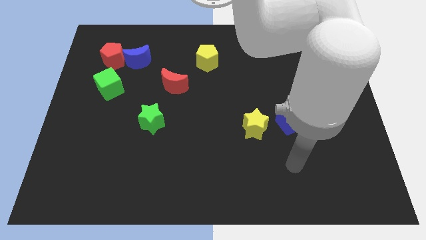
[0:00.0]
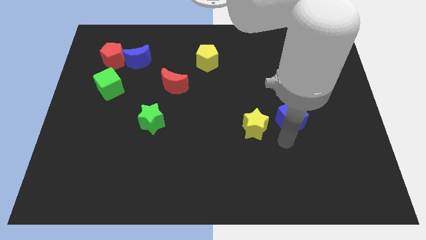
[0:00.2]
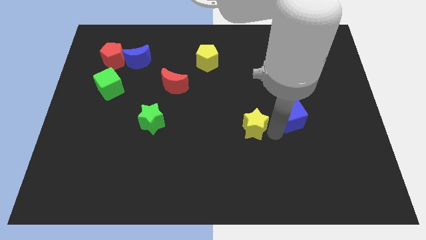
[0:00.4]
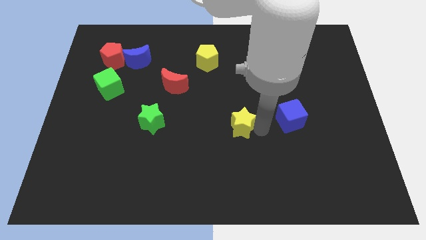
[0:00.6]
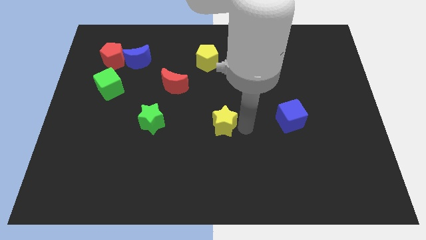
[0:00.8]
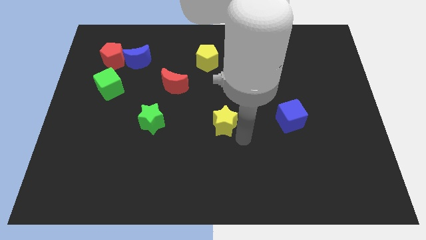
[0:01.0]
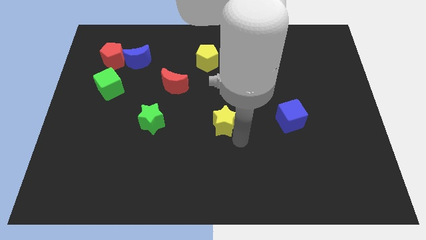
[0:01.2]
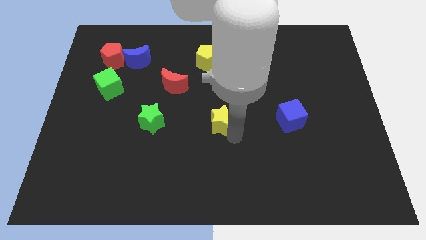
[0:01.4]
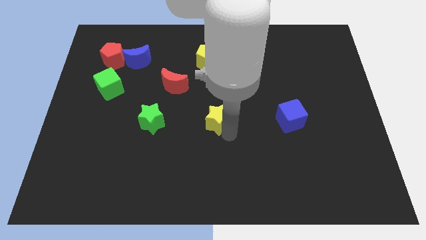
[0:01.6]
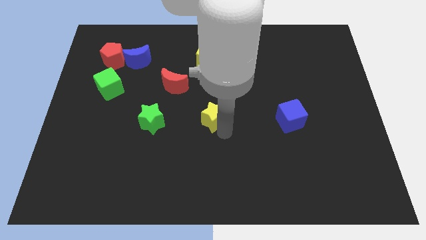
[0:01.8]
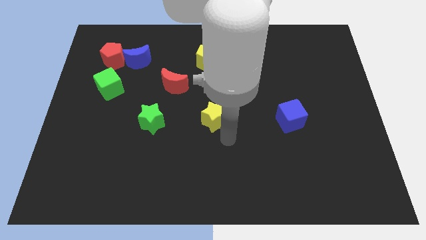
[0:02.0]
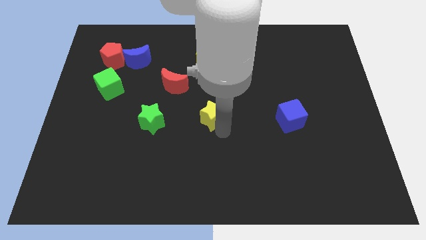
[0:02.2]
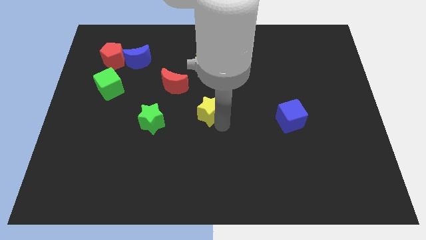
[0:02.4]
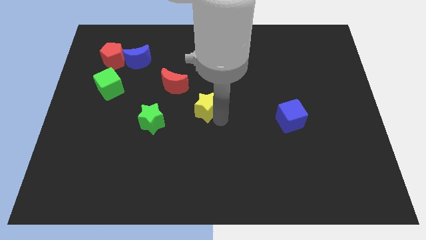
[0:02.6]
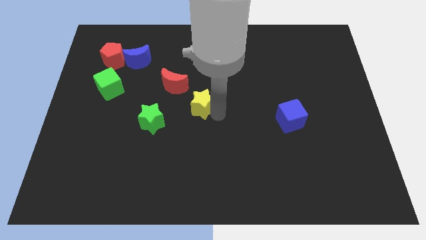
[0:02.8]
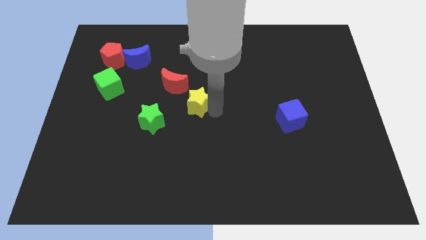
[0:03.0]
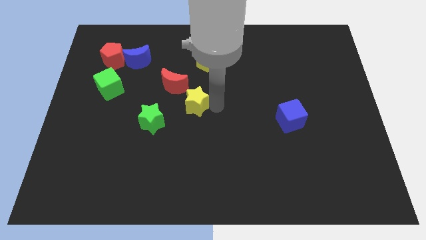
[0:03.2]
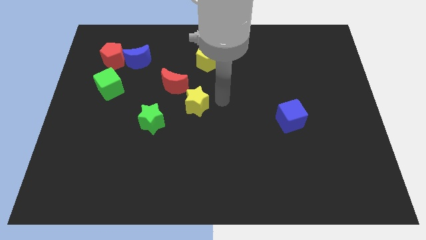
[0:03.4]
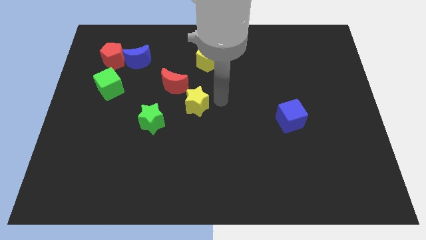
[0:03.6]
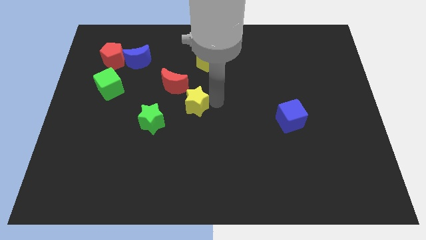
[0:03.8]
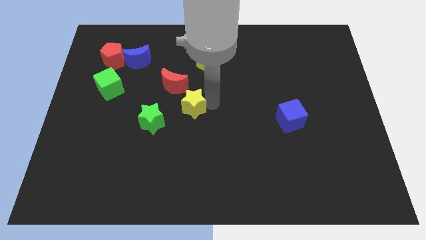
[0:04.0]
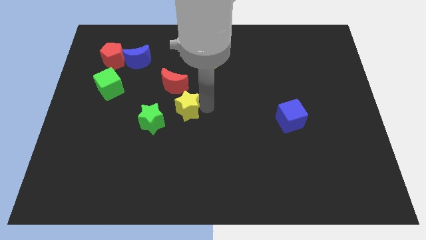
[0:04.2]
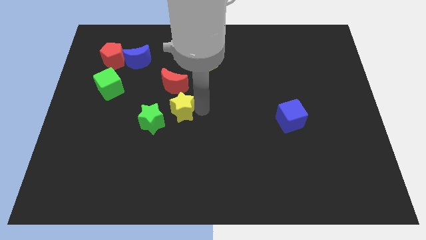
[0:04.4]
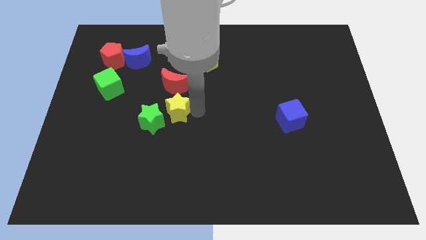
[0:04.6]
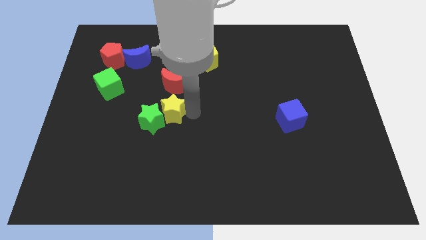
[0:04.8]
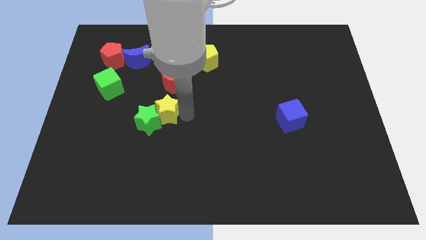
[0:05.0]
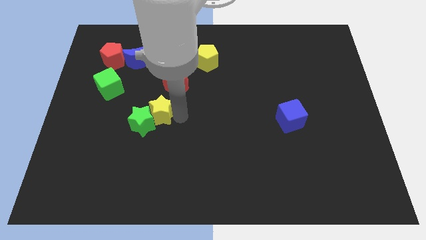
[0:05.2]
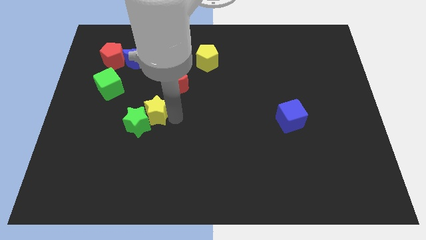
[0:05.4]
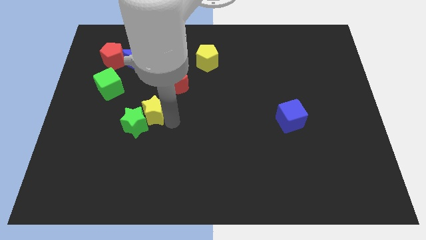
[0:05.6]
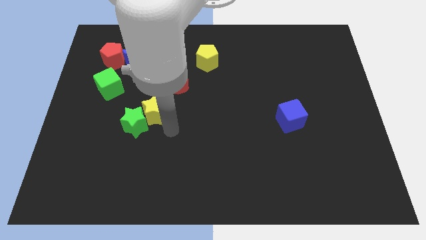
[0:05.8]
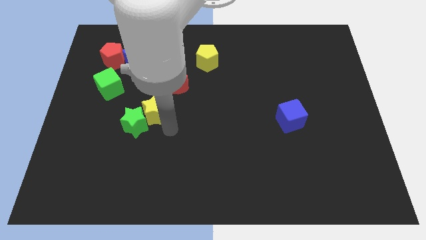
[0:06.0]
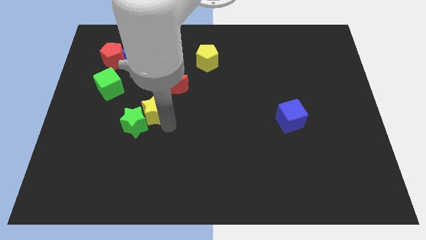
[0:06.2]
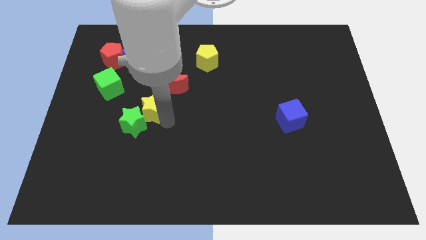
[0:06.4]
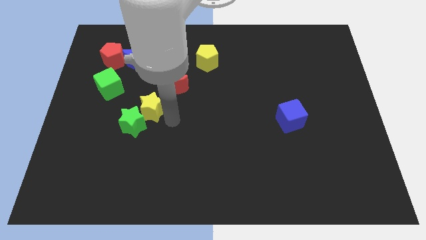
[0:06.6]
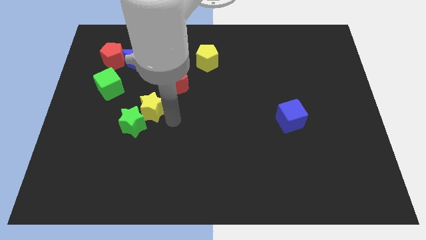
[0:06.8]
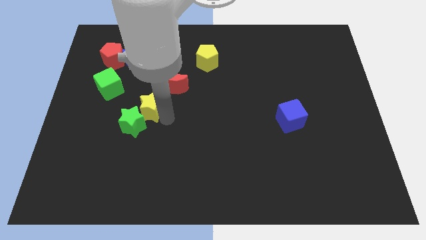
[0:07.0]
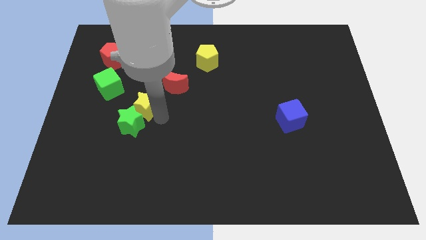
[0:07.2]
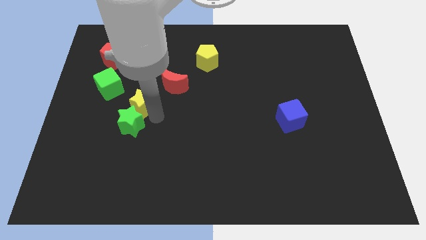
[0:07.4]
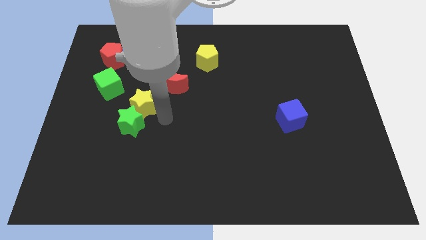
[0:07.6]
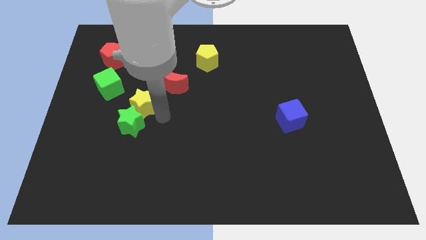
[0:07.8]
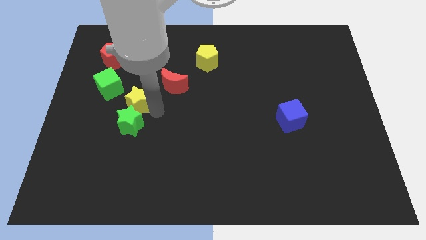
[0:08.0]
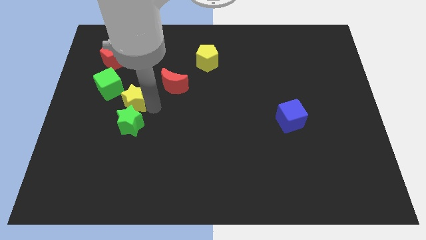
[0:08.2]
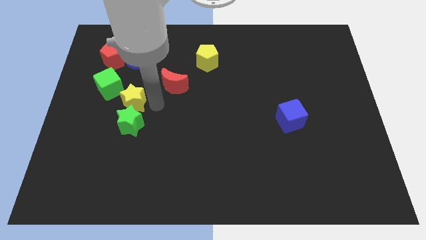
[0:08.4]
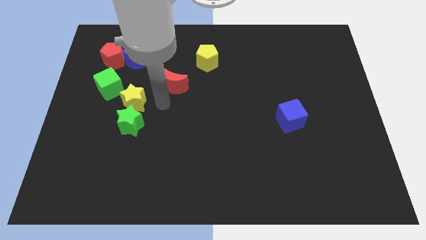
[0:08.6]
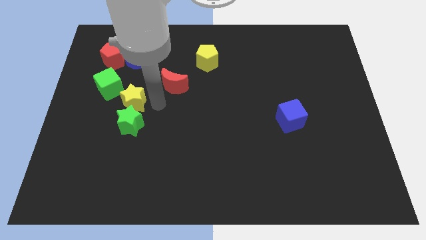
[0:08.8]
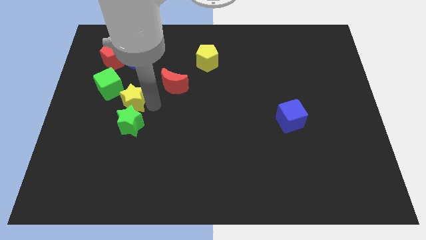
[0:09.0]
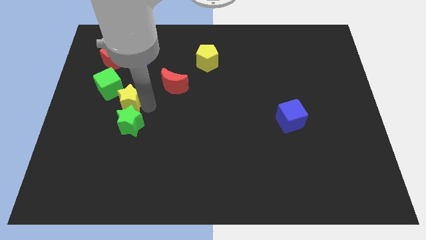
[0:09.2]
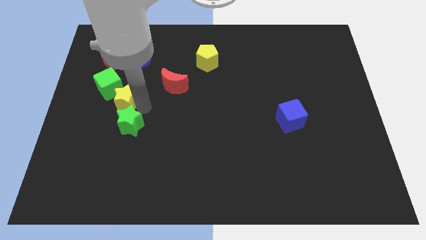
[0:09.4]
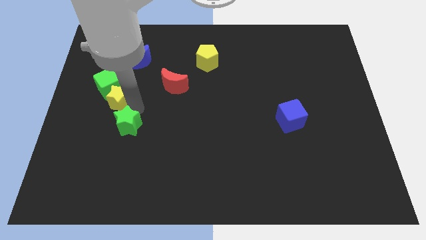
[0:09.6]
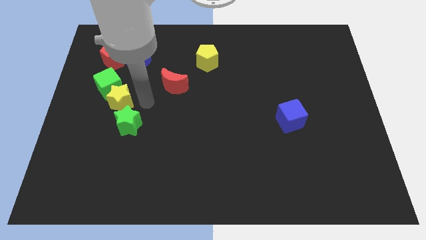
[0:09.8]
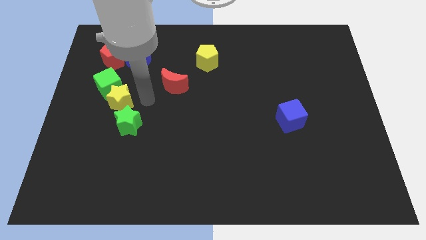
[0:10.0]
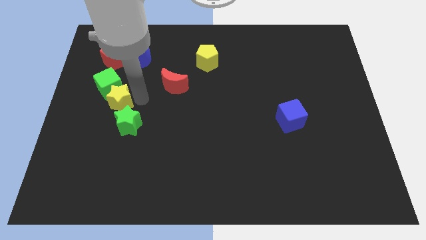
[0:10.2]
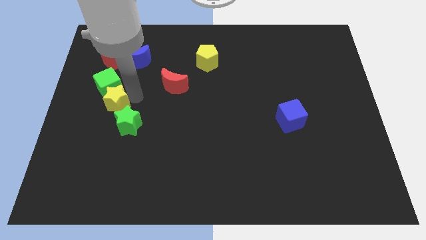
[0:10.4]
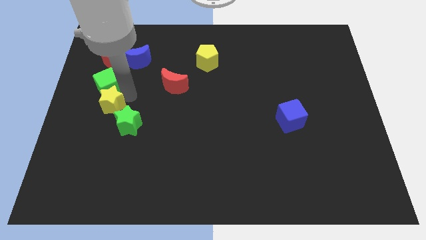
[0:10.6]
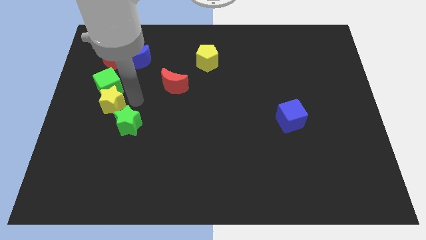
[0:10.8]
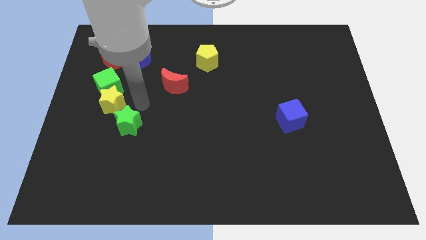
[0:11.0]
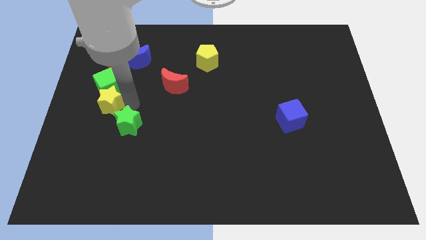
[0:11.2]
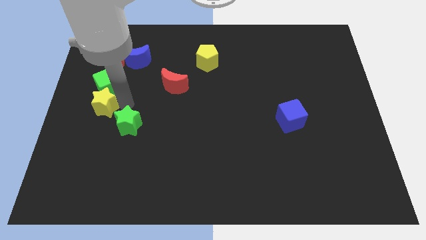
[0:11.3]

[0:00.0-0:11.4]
push the yellow star to the center left

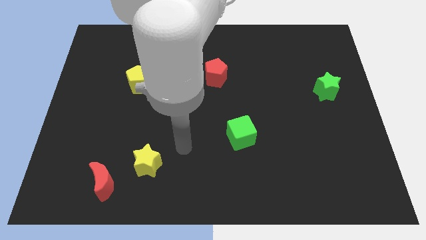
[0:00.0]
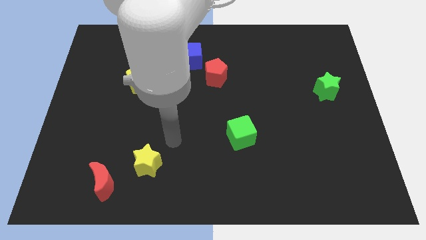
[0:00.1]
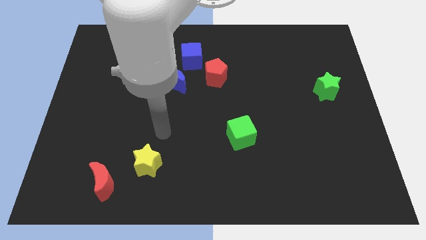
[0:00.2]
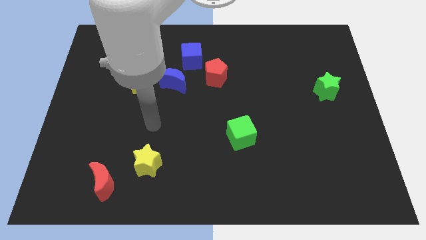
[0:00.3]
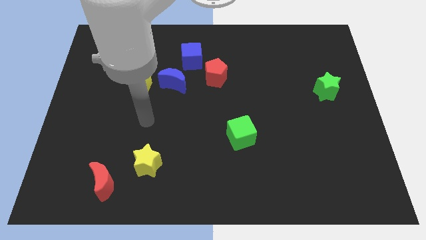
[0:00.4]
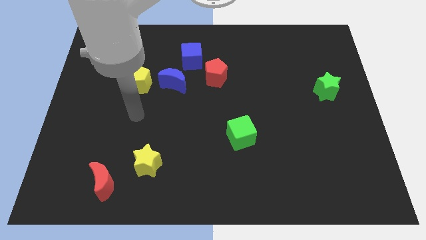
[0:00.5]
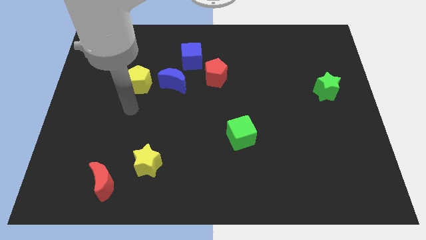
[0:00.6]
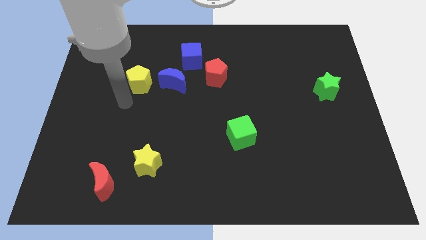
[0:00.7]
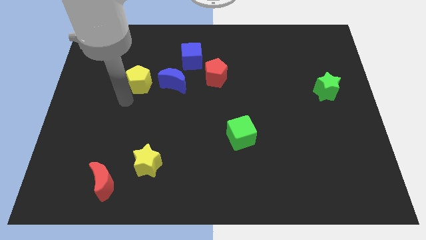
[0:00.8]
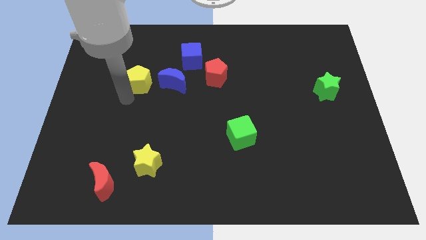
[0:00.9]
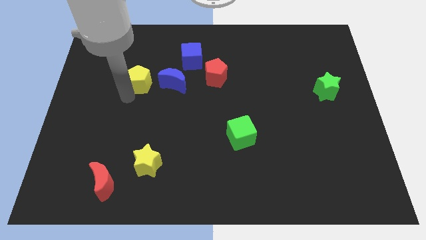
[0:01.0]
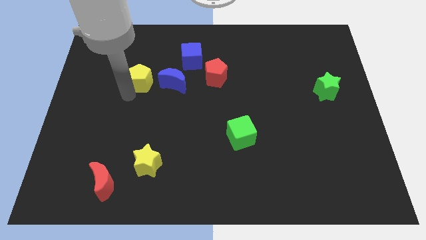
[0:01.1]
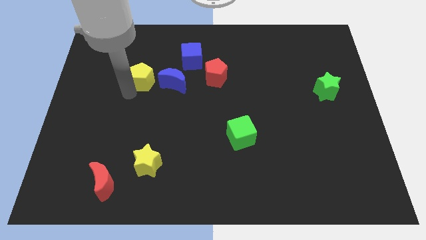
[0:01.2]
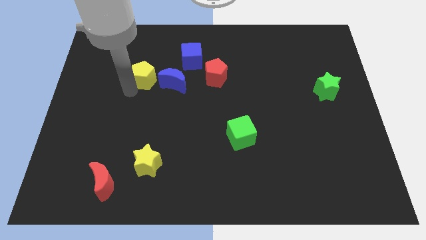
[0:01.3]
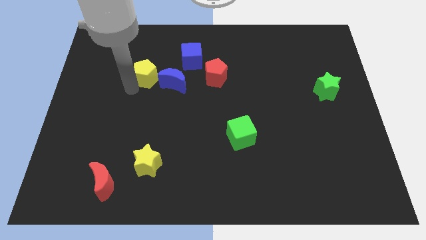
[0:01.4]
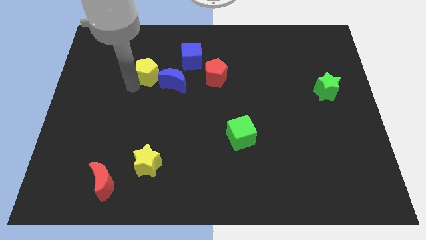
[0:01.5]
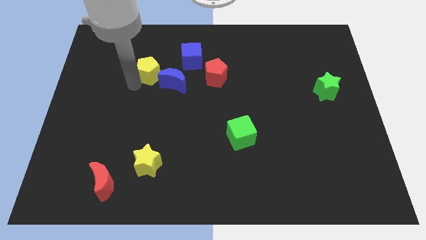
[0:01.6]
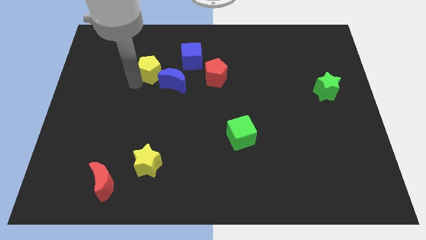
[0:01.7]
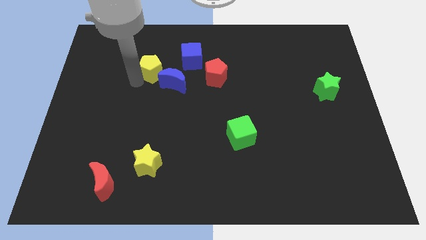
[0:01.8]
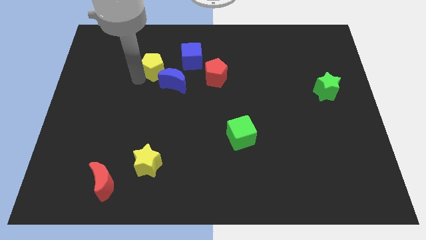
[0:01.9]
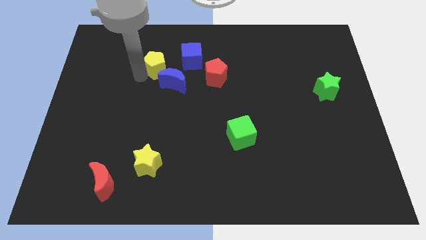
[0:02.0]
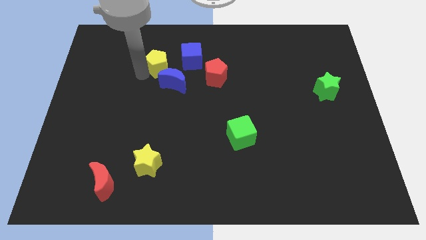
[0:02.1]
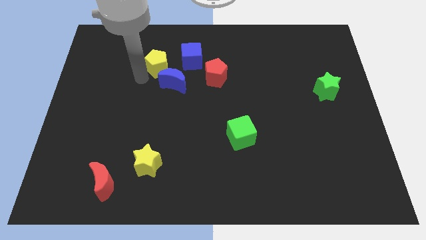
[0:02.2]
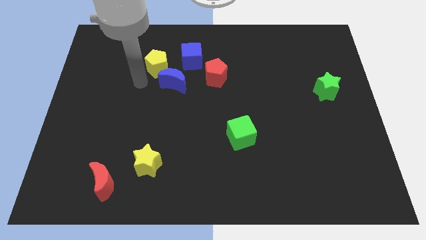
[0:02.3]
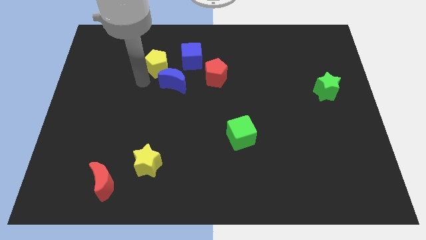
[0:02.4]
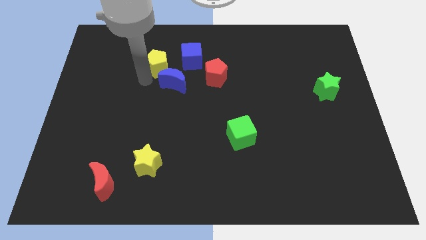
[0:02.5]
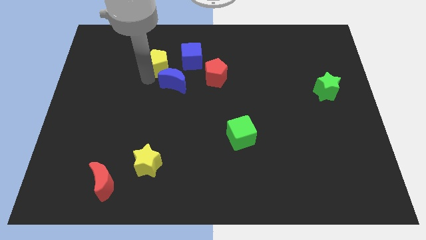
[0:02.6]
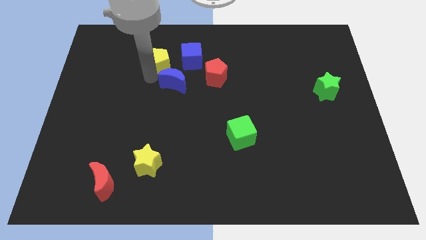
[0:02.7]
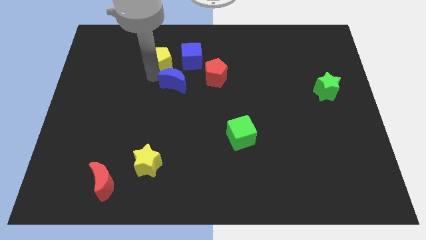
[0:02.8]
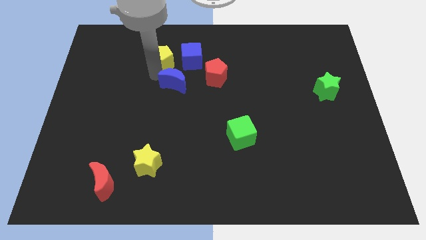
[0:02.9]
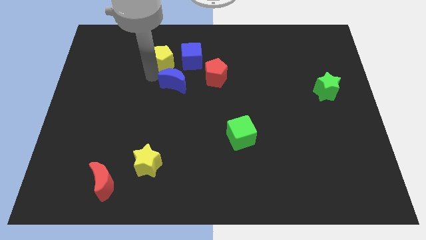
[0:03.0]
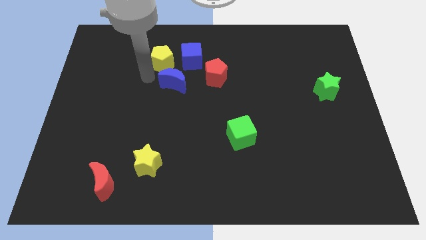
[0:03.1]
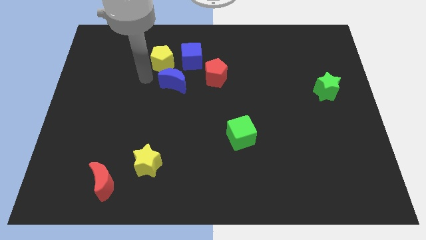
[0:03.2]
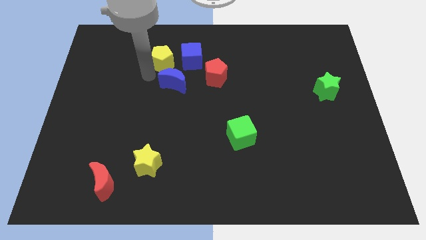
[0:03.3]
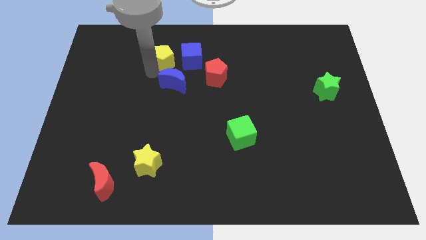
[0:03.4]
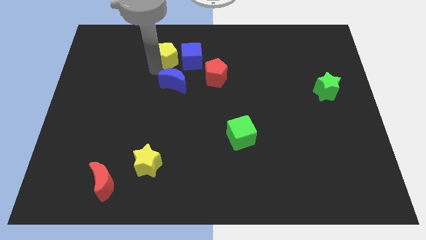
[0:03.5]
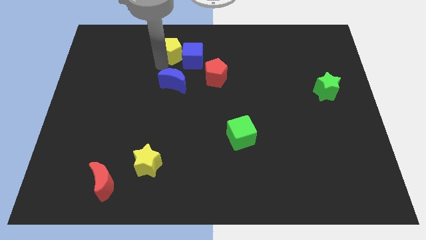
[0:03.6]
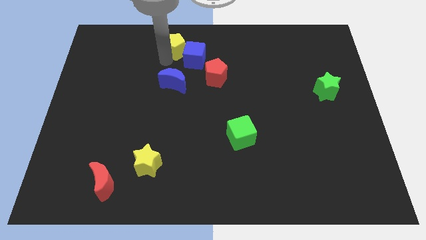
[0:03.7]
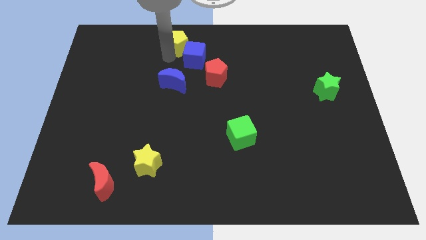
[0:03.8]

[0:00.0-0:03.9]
put the yellow pentagon to the top
